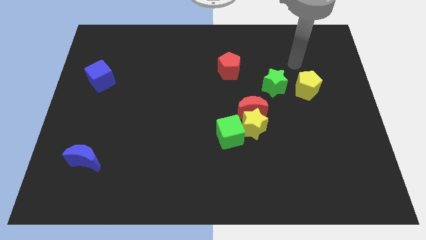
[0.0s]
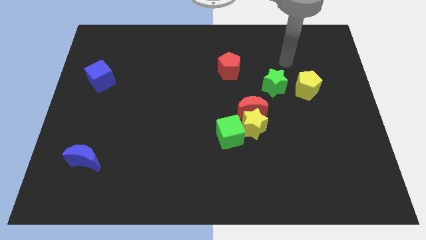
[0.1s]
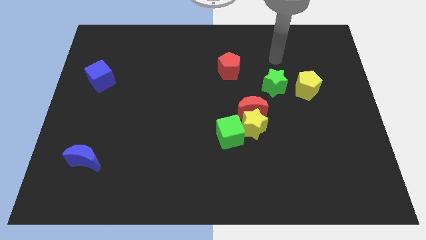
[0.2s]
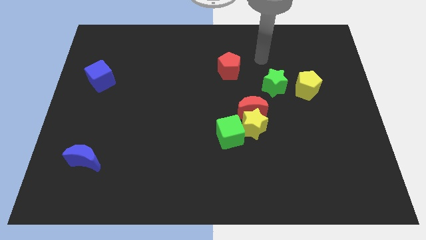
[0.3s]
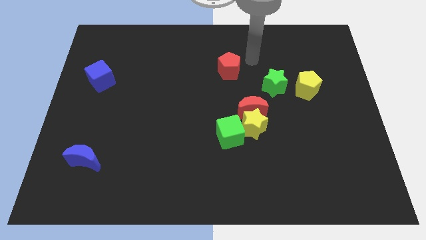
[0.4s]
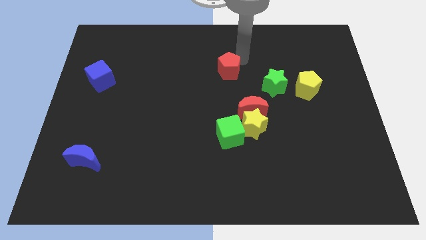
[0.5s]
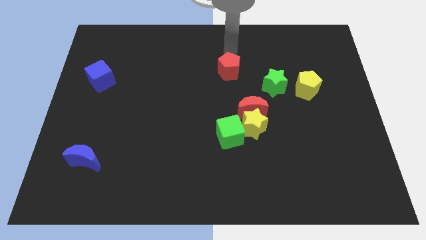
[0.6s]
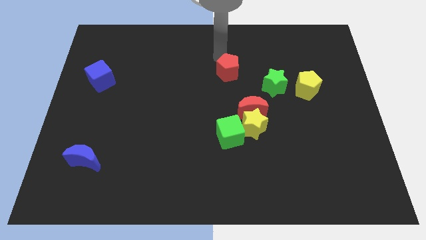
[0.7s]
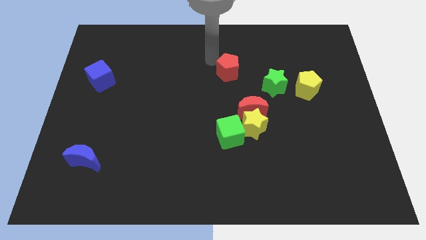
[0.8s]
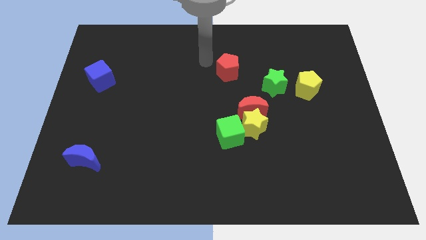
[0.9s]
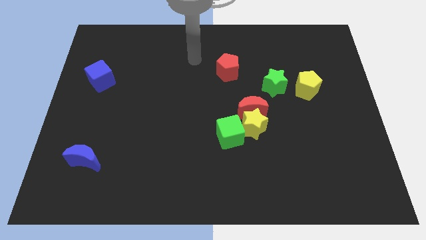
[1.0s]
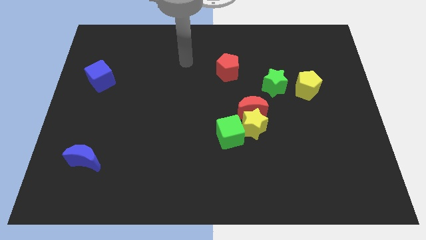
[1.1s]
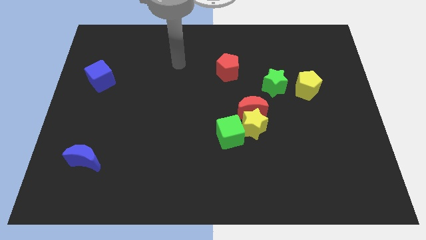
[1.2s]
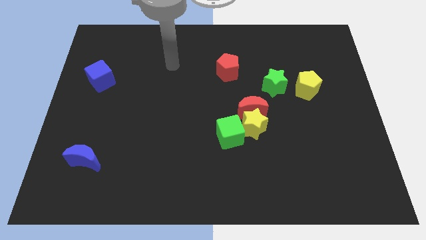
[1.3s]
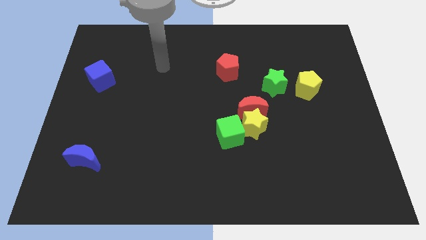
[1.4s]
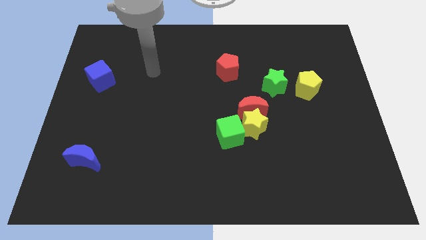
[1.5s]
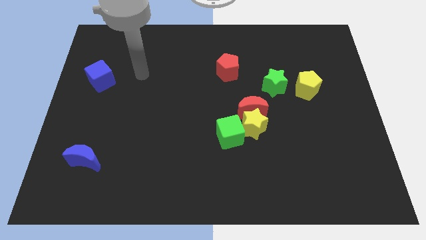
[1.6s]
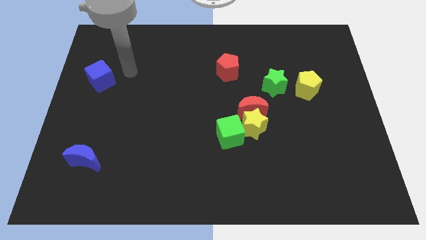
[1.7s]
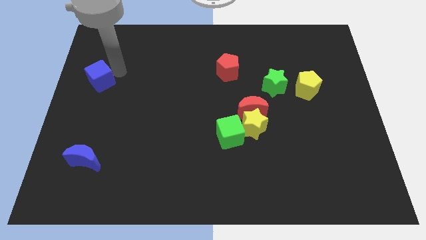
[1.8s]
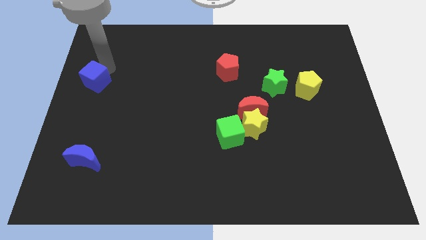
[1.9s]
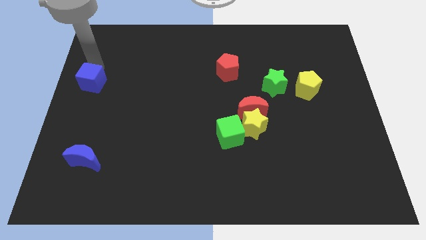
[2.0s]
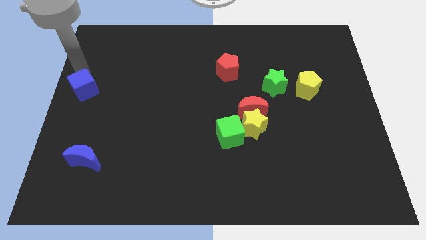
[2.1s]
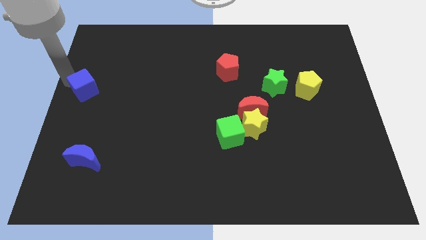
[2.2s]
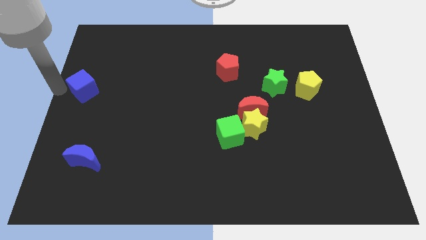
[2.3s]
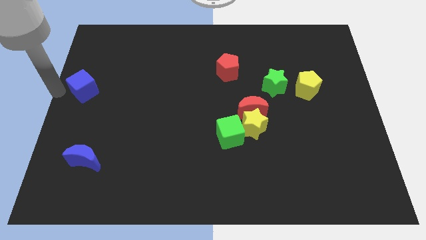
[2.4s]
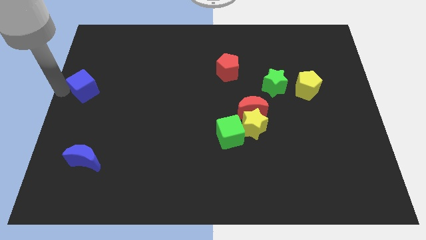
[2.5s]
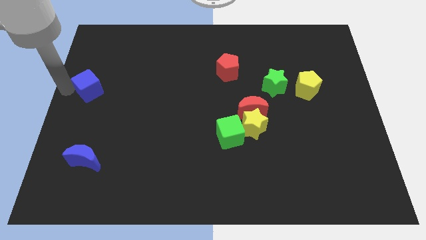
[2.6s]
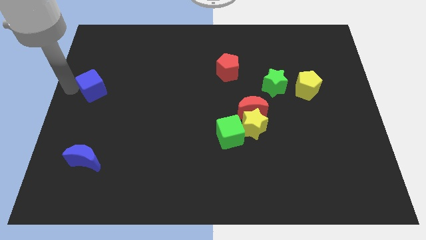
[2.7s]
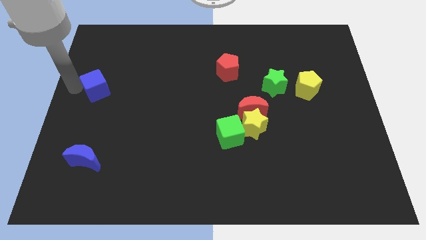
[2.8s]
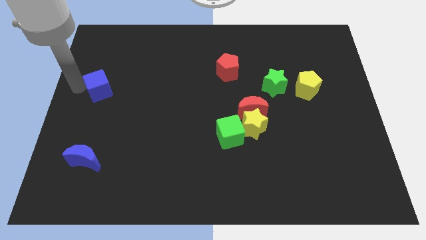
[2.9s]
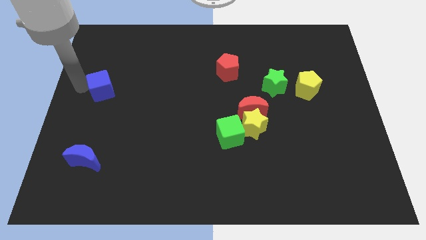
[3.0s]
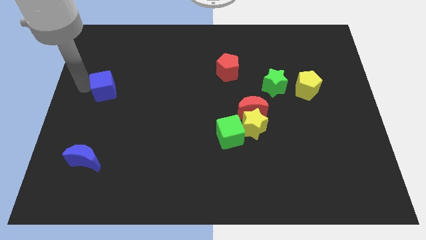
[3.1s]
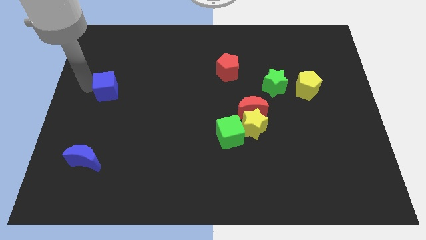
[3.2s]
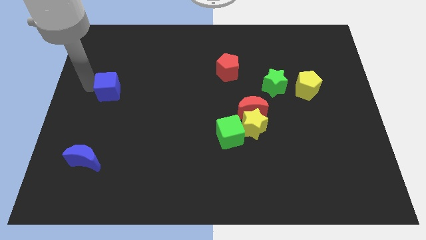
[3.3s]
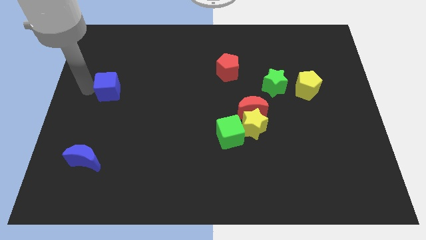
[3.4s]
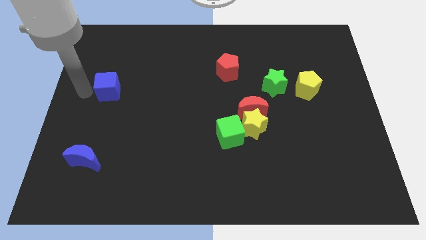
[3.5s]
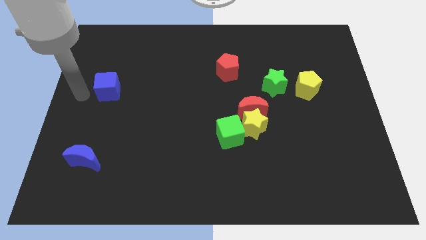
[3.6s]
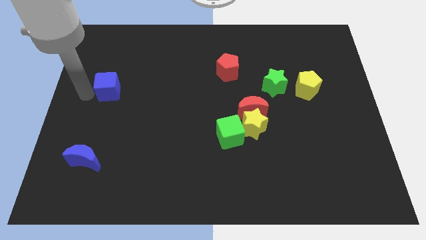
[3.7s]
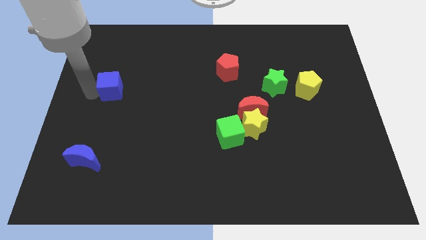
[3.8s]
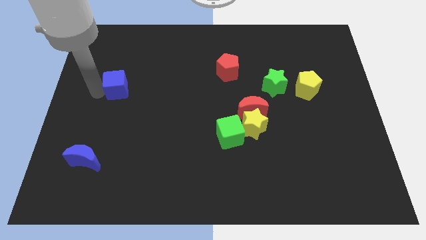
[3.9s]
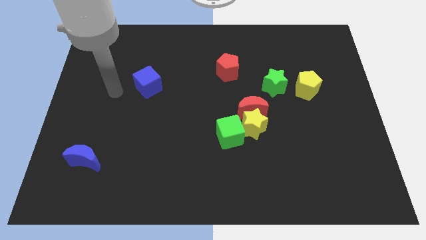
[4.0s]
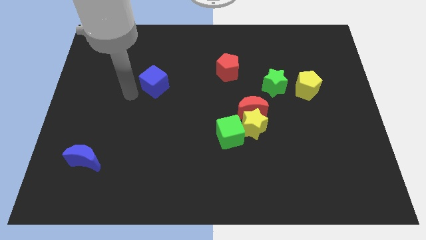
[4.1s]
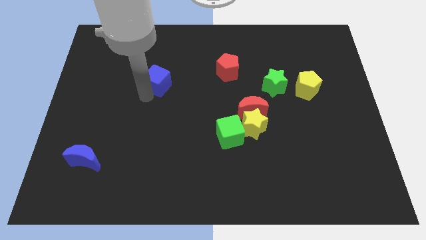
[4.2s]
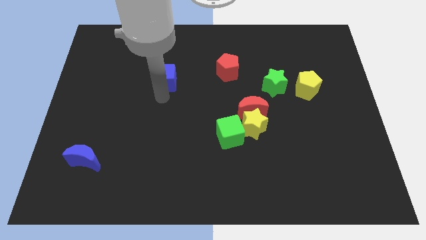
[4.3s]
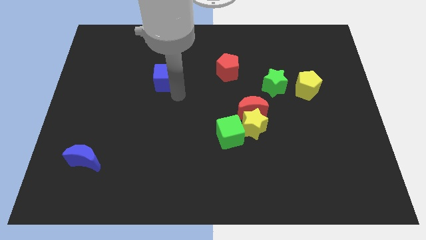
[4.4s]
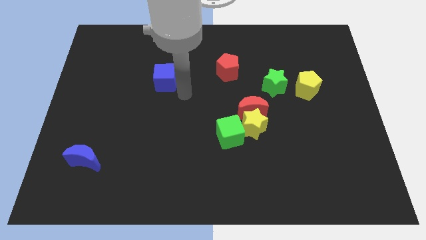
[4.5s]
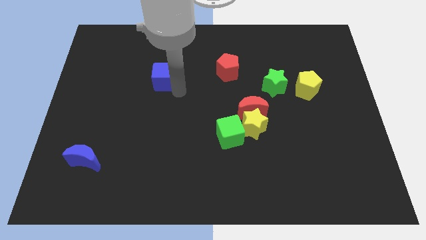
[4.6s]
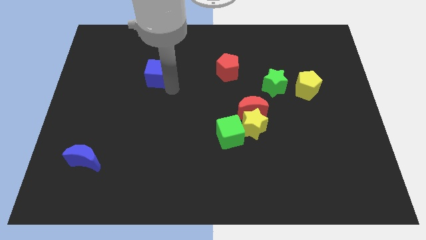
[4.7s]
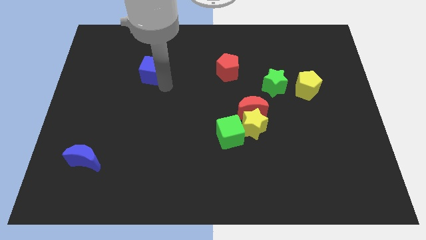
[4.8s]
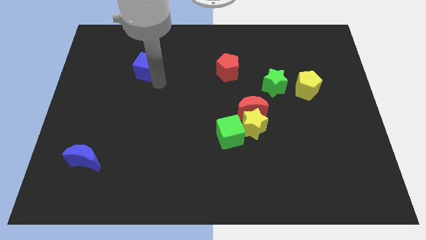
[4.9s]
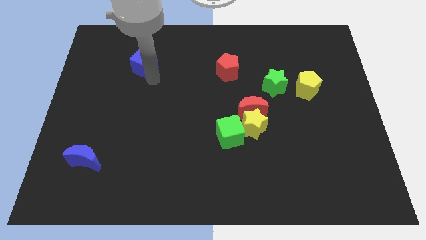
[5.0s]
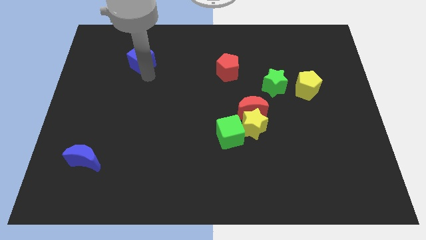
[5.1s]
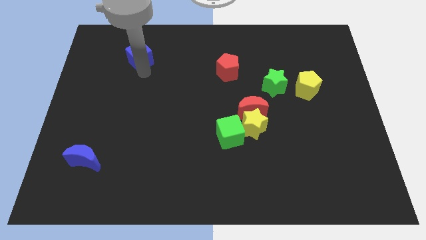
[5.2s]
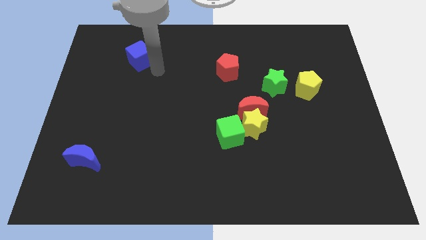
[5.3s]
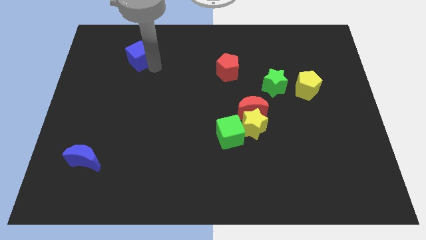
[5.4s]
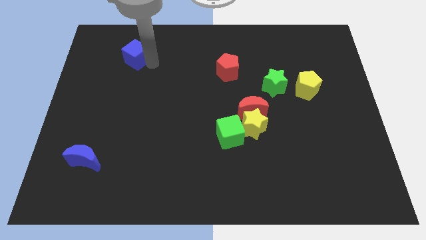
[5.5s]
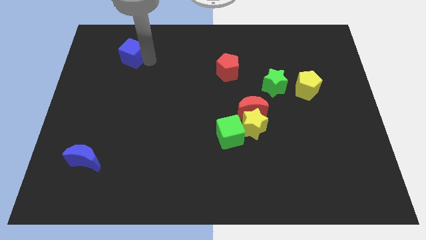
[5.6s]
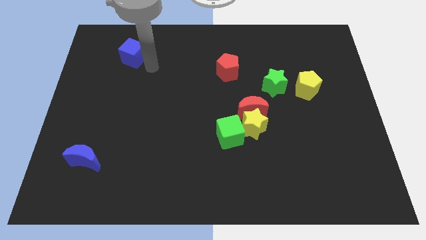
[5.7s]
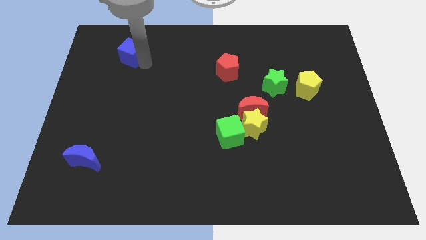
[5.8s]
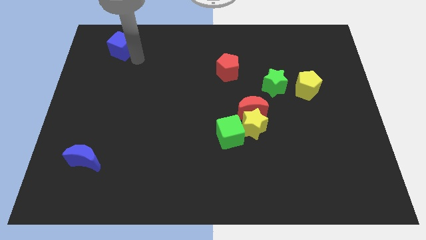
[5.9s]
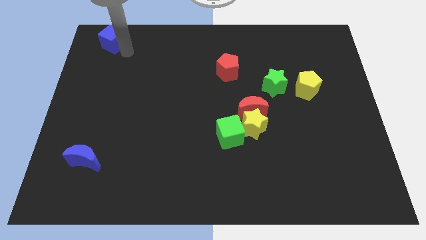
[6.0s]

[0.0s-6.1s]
move the blue cube to the top left
